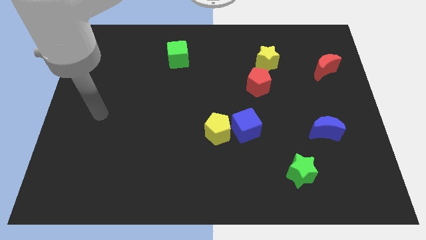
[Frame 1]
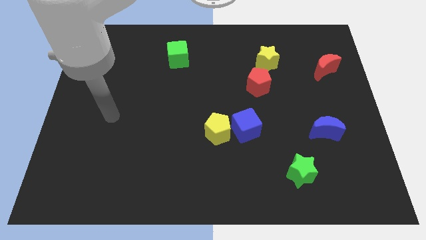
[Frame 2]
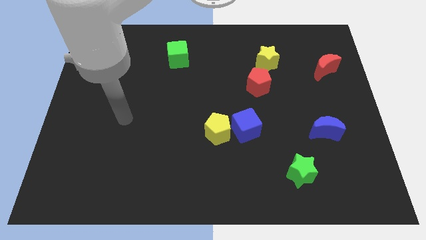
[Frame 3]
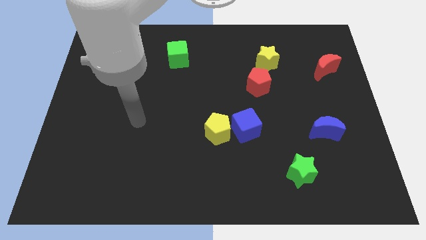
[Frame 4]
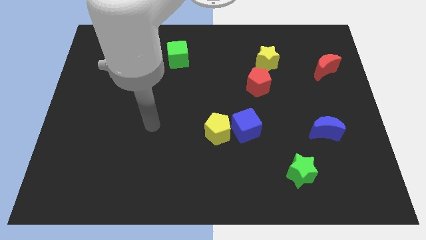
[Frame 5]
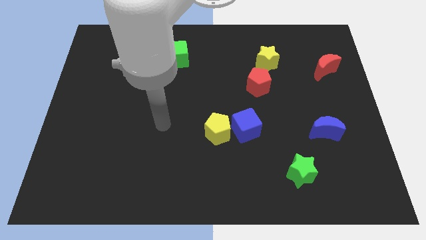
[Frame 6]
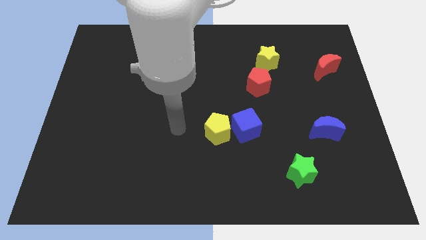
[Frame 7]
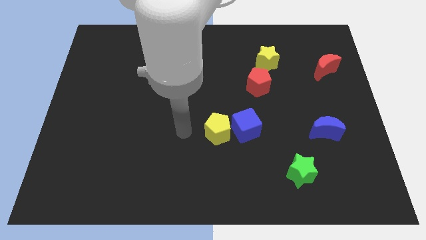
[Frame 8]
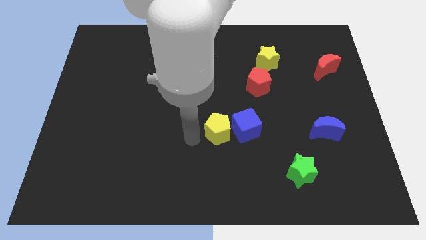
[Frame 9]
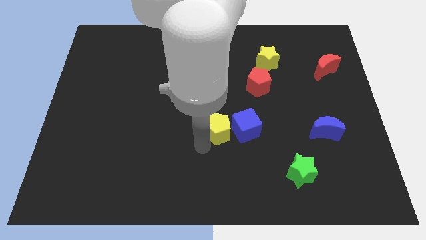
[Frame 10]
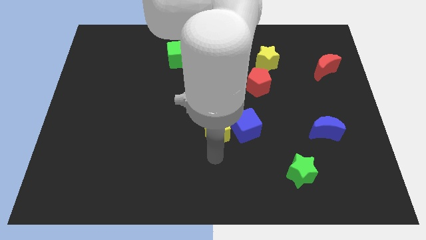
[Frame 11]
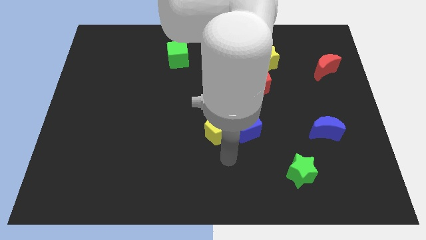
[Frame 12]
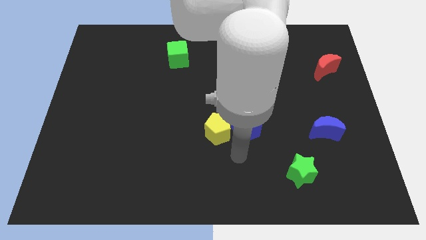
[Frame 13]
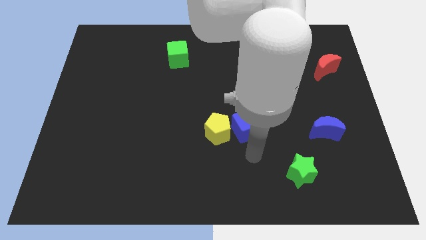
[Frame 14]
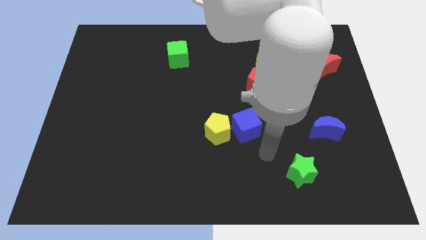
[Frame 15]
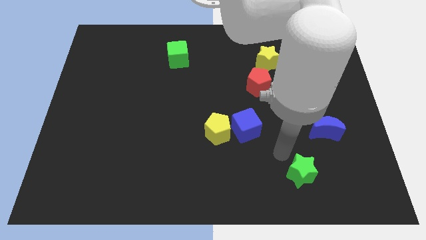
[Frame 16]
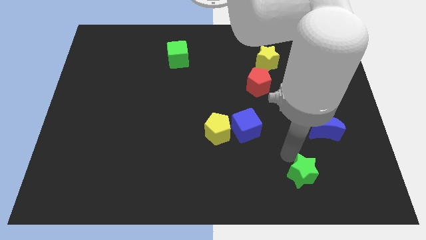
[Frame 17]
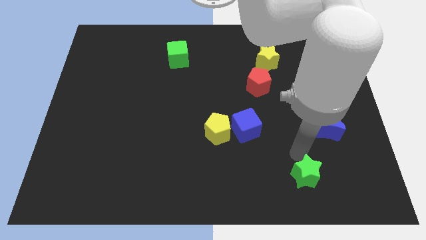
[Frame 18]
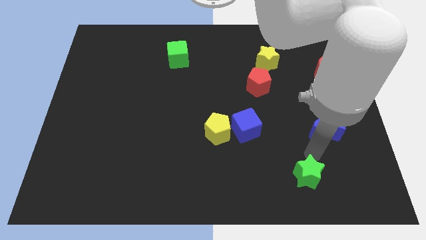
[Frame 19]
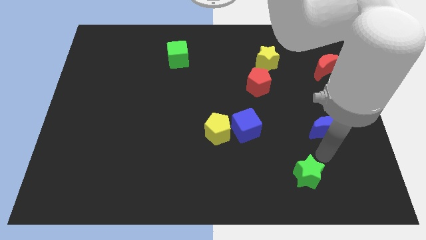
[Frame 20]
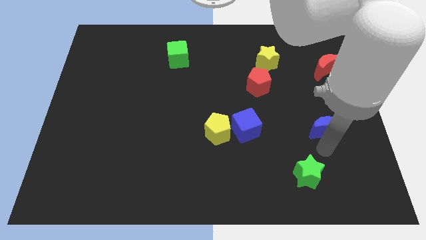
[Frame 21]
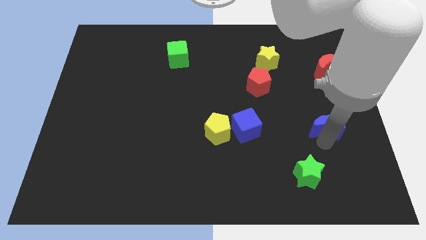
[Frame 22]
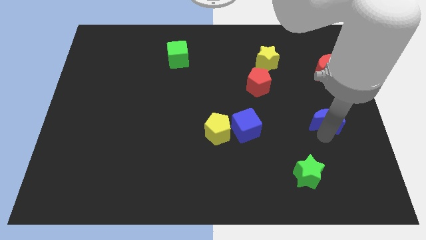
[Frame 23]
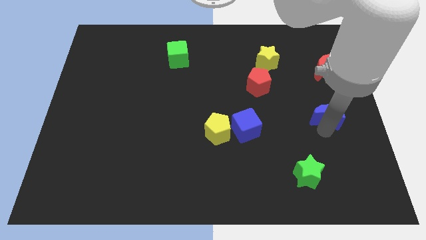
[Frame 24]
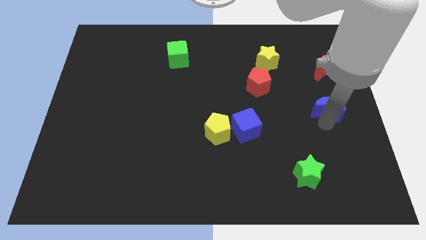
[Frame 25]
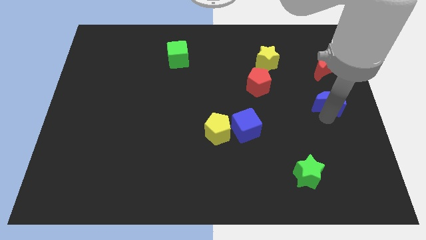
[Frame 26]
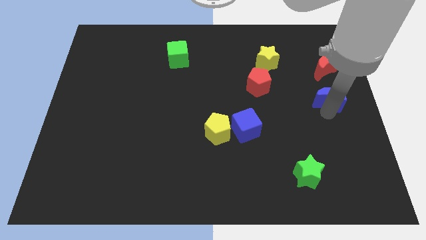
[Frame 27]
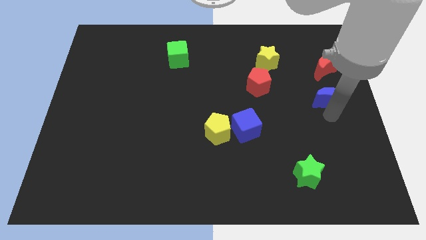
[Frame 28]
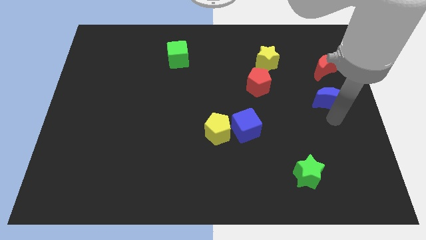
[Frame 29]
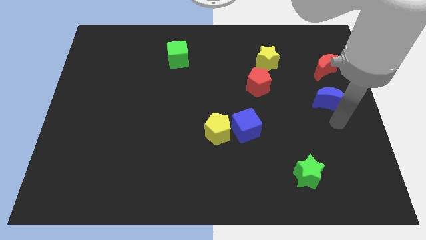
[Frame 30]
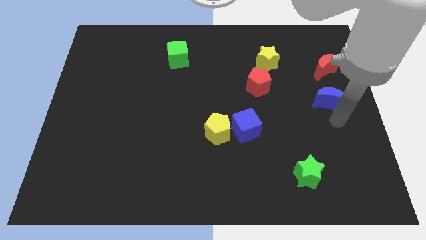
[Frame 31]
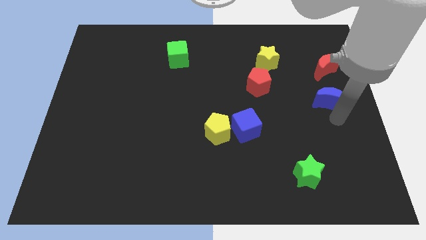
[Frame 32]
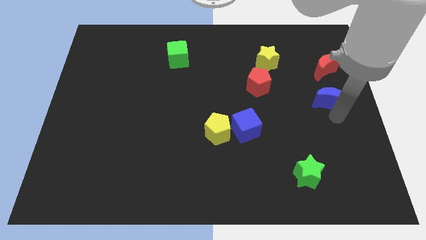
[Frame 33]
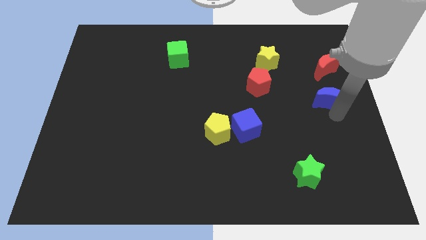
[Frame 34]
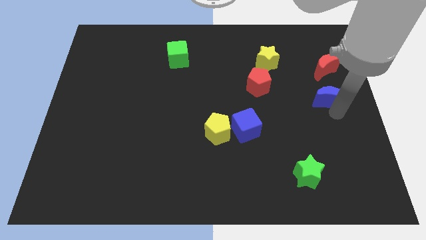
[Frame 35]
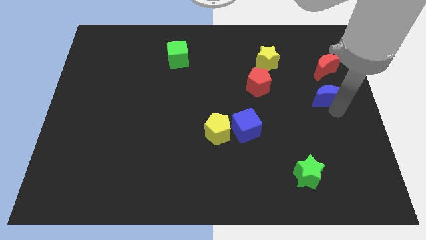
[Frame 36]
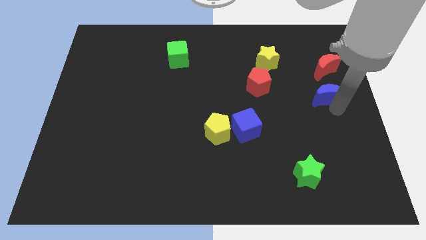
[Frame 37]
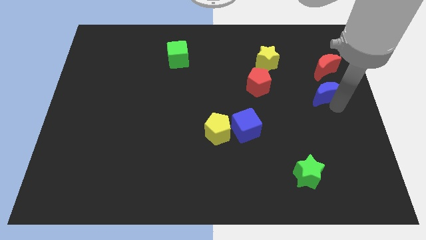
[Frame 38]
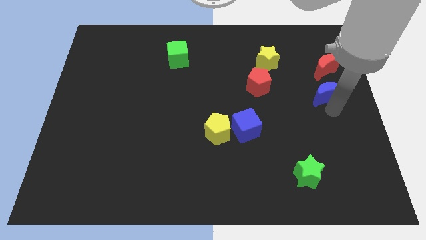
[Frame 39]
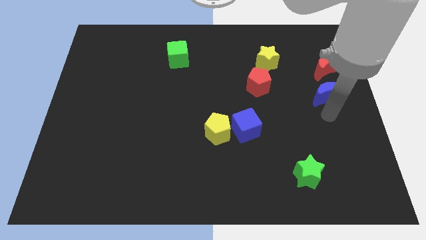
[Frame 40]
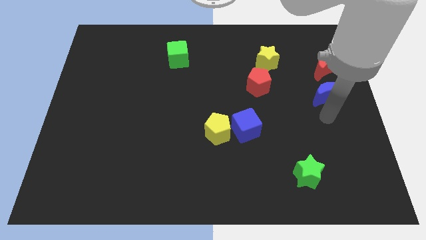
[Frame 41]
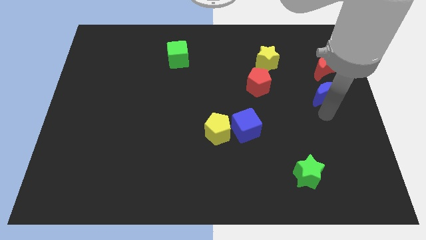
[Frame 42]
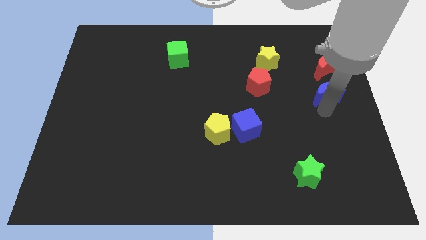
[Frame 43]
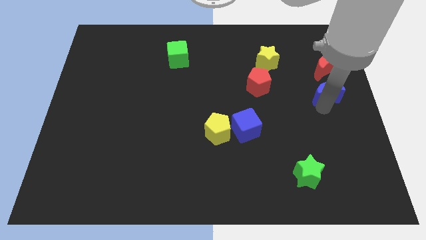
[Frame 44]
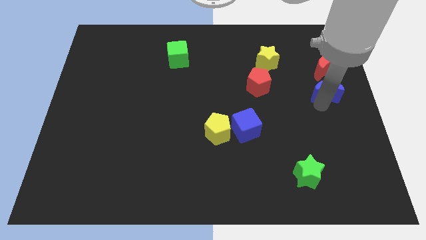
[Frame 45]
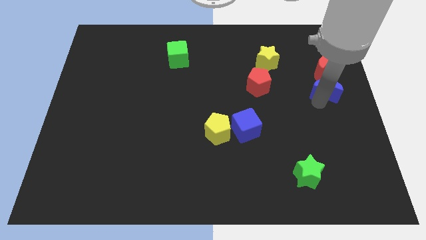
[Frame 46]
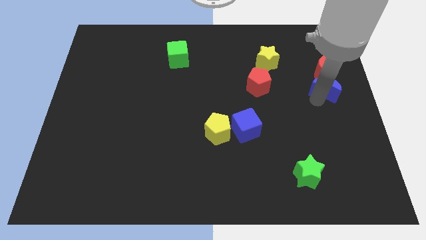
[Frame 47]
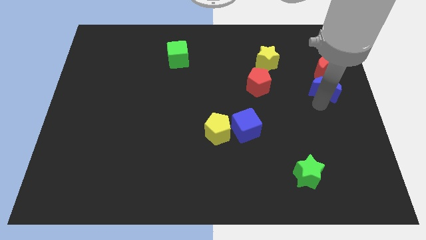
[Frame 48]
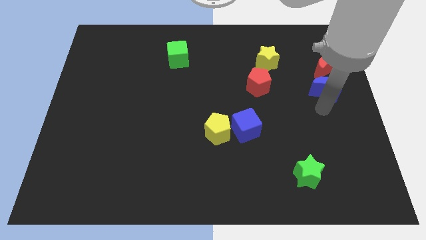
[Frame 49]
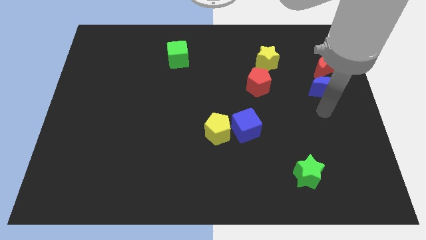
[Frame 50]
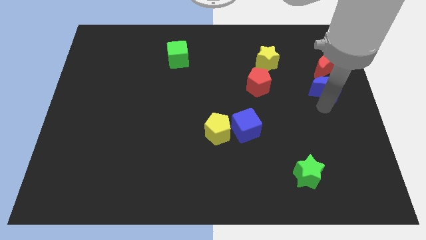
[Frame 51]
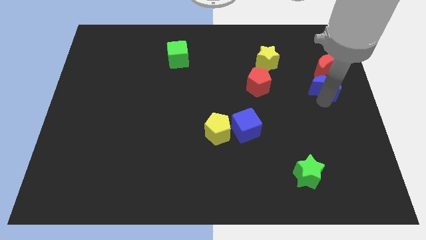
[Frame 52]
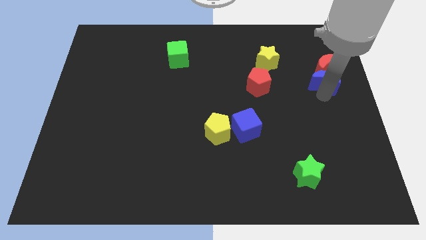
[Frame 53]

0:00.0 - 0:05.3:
slide the blue moon close to the red moon

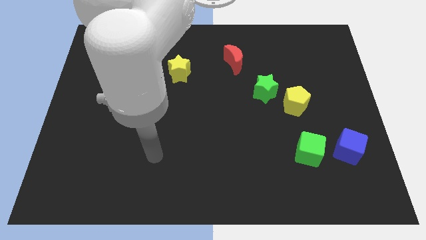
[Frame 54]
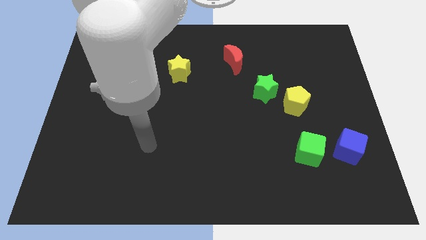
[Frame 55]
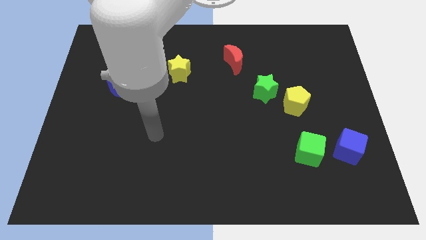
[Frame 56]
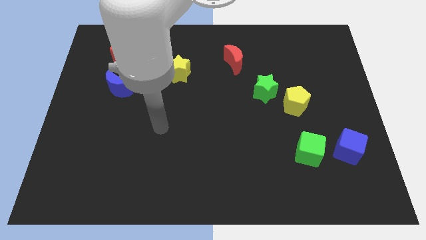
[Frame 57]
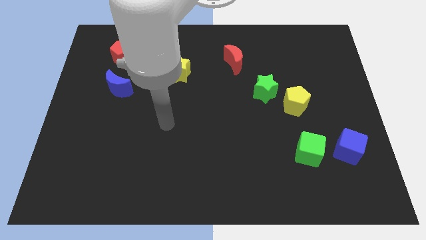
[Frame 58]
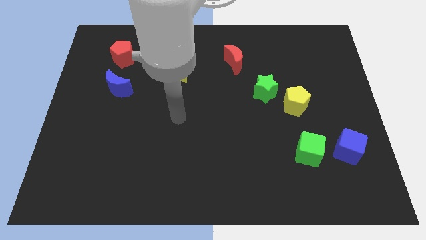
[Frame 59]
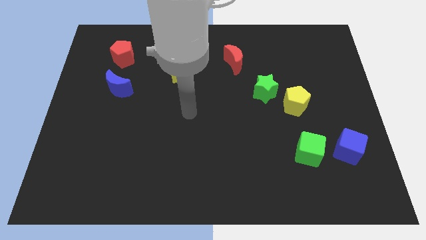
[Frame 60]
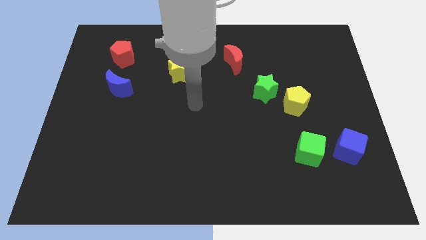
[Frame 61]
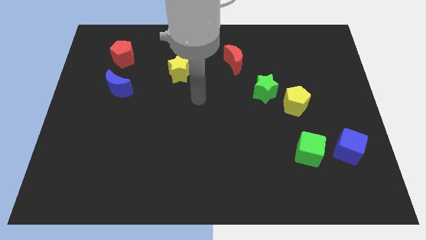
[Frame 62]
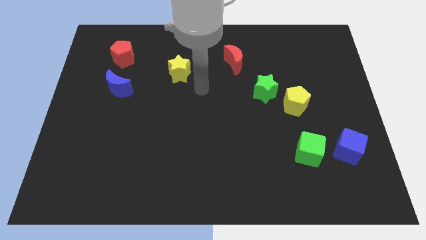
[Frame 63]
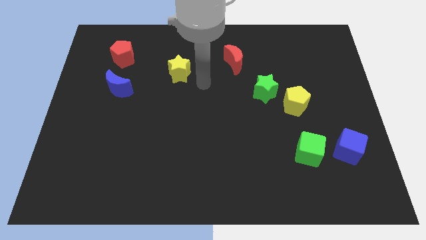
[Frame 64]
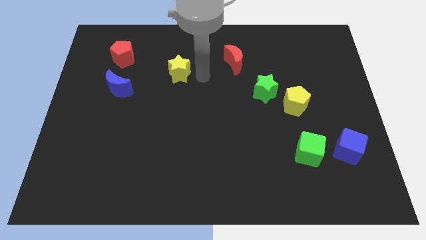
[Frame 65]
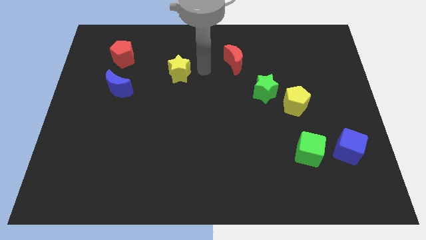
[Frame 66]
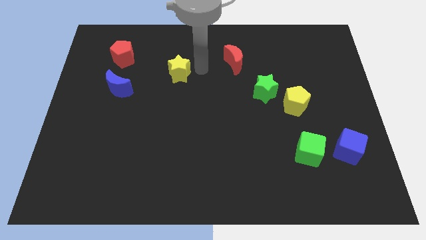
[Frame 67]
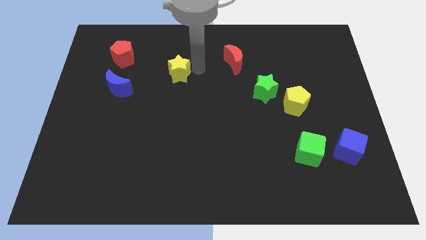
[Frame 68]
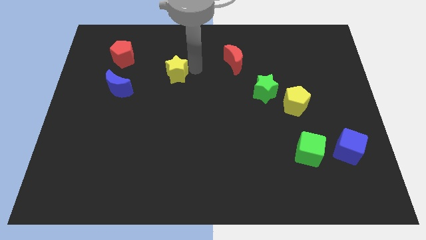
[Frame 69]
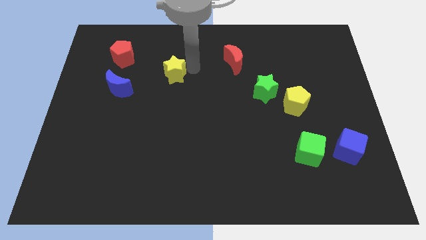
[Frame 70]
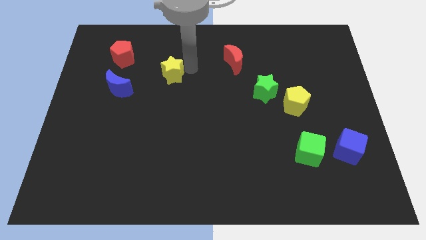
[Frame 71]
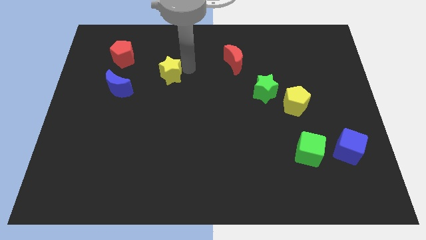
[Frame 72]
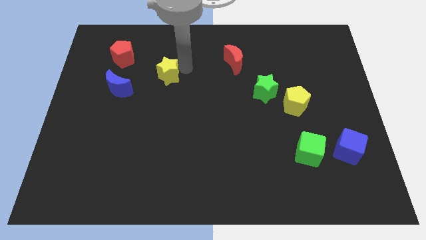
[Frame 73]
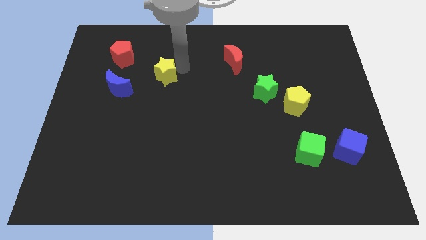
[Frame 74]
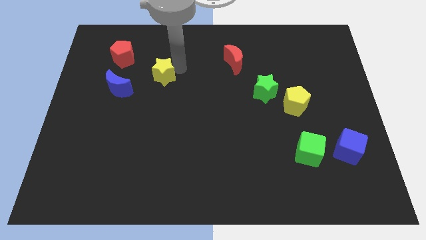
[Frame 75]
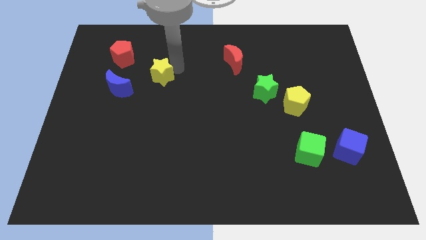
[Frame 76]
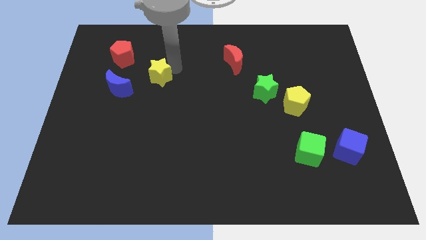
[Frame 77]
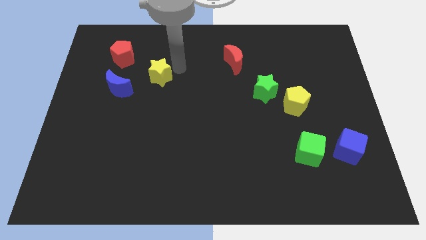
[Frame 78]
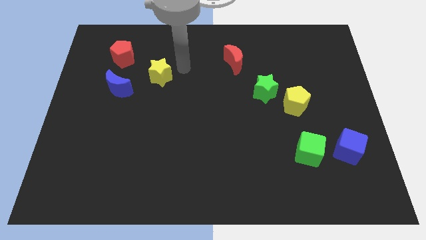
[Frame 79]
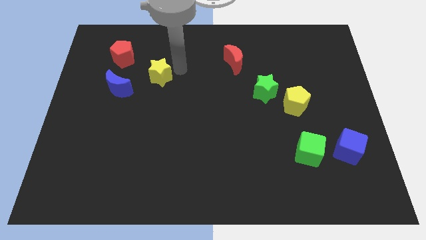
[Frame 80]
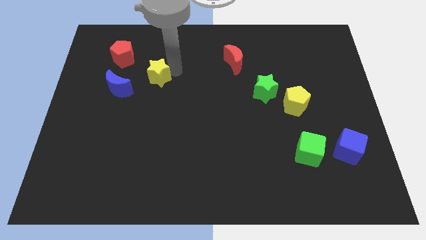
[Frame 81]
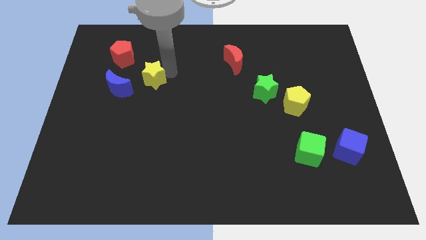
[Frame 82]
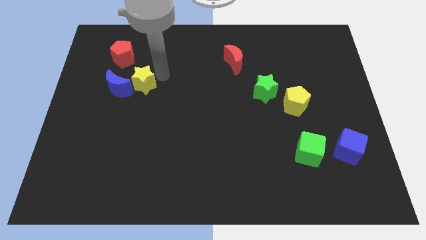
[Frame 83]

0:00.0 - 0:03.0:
push the yellow star next to the blue moon
